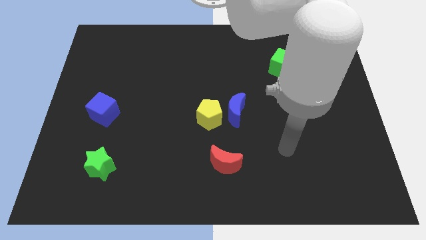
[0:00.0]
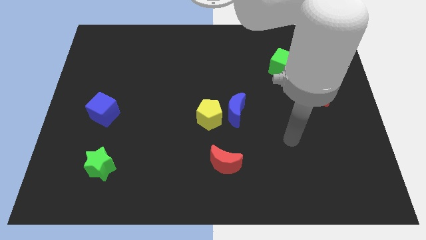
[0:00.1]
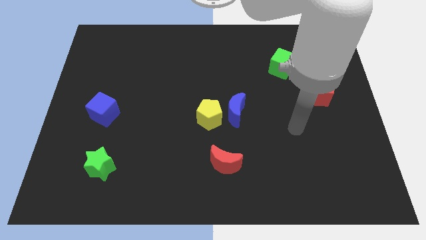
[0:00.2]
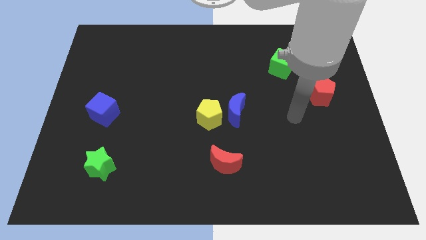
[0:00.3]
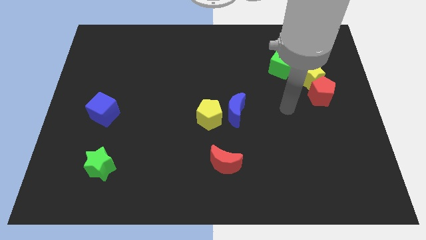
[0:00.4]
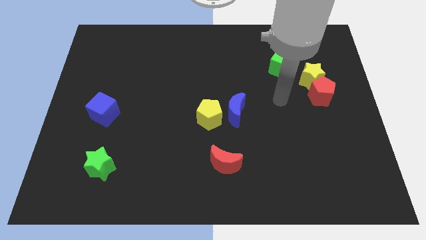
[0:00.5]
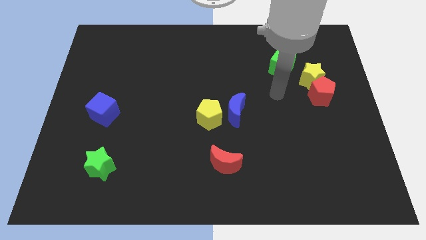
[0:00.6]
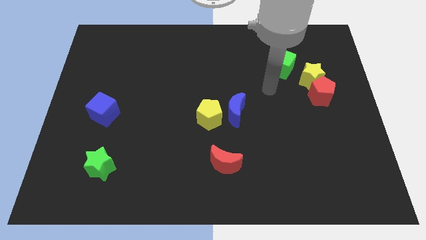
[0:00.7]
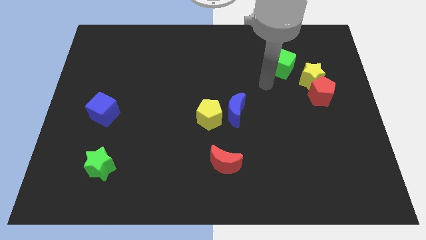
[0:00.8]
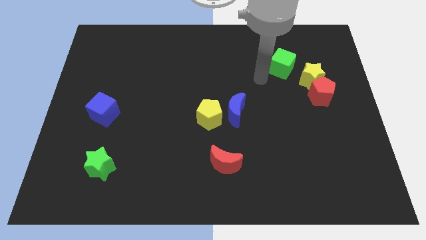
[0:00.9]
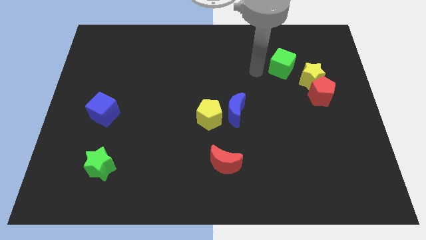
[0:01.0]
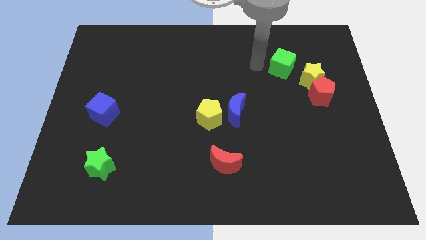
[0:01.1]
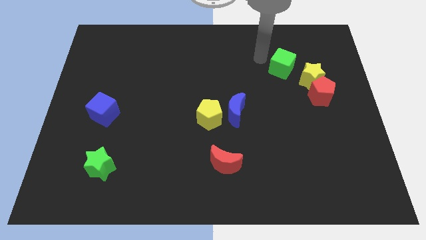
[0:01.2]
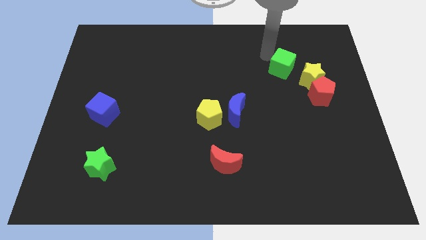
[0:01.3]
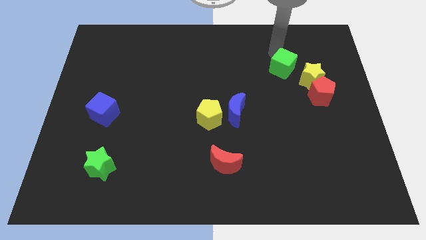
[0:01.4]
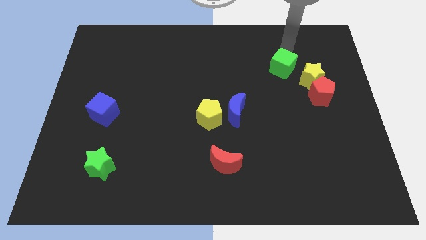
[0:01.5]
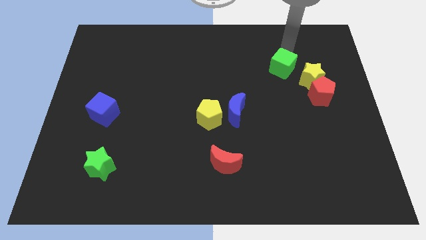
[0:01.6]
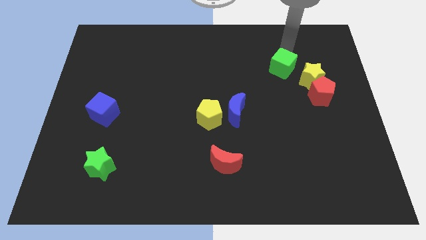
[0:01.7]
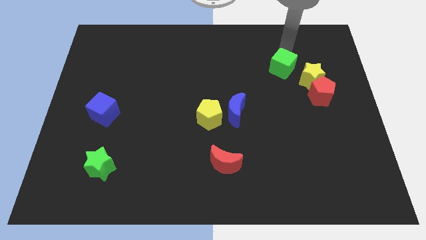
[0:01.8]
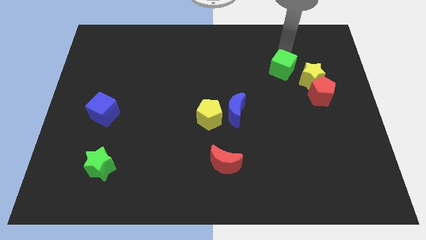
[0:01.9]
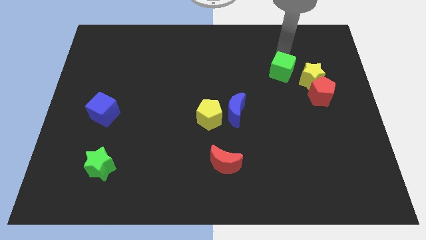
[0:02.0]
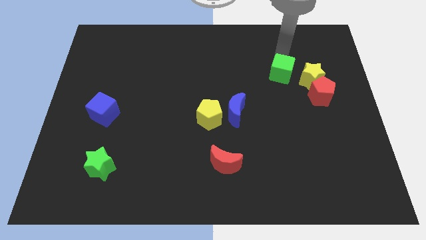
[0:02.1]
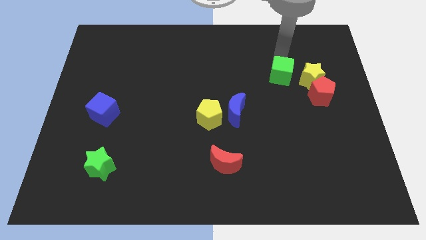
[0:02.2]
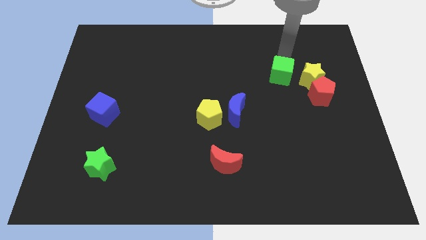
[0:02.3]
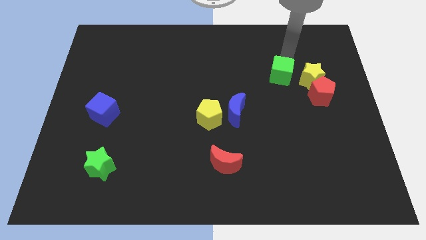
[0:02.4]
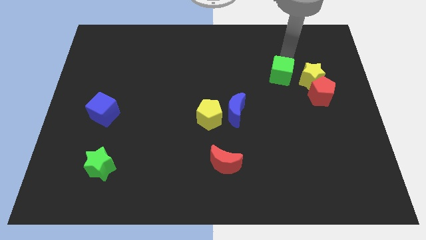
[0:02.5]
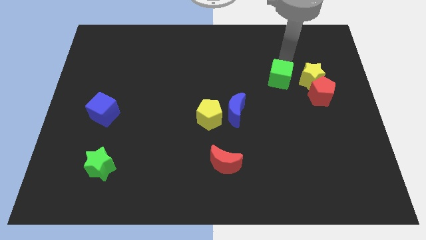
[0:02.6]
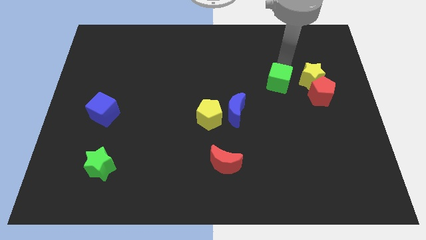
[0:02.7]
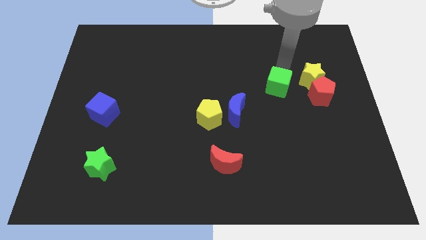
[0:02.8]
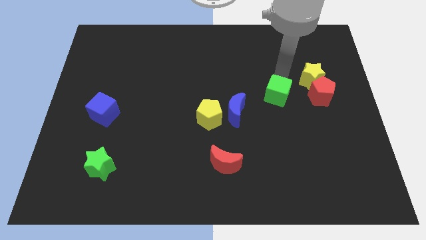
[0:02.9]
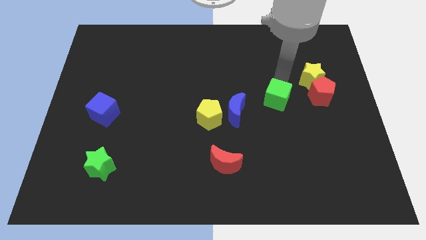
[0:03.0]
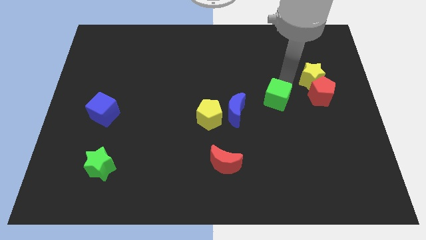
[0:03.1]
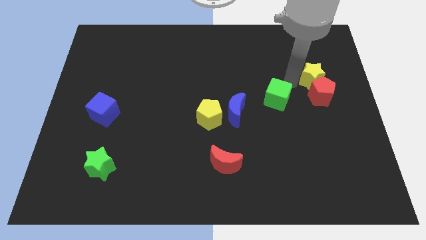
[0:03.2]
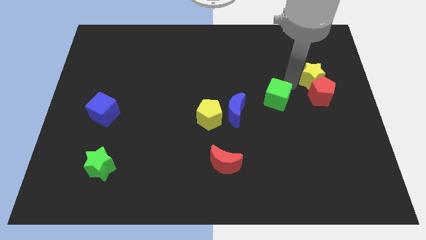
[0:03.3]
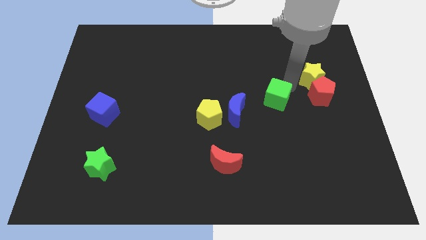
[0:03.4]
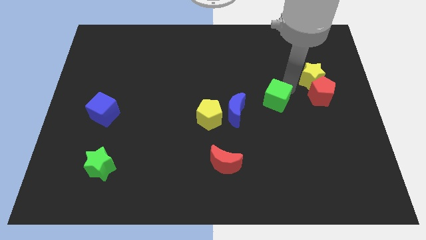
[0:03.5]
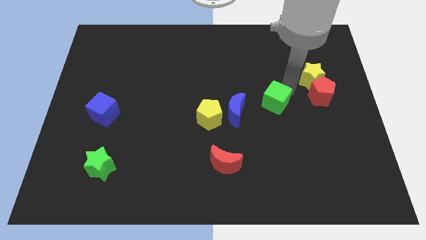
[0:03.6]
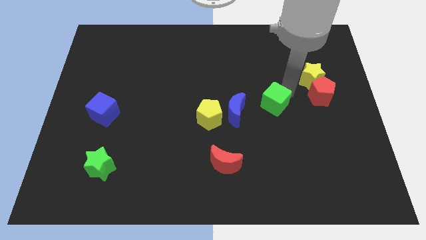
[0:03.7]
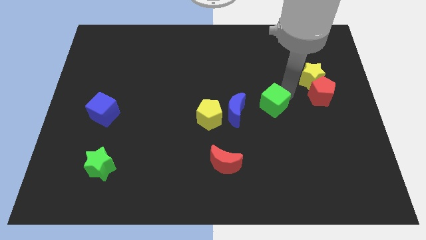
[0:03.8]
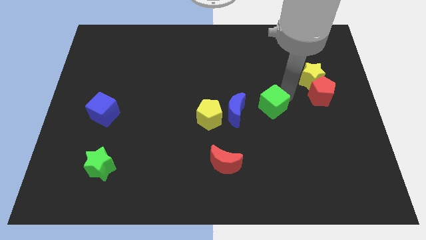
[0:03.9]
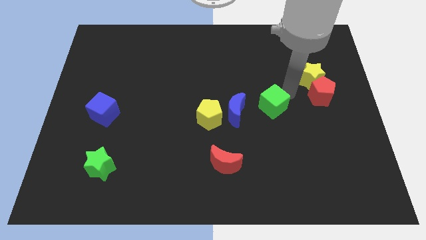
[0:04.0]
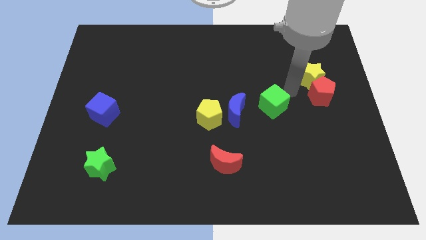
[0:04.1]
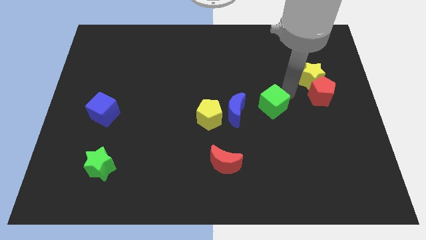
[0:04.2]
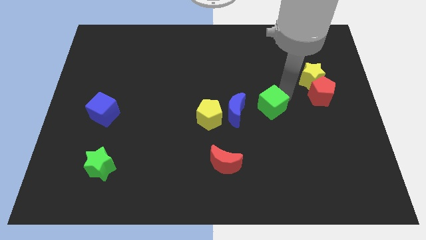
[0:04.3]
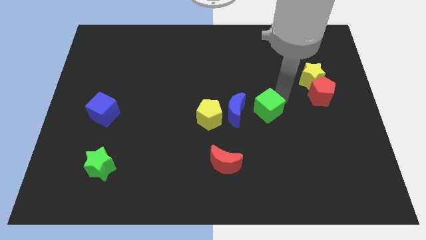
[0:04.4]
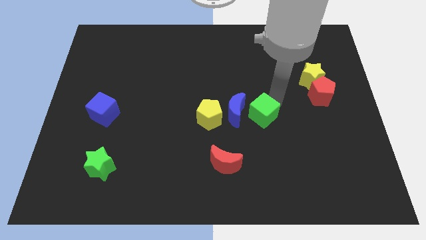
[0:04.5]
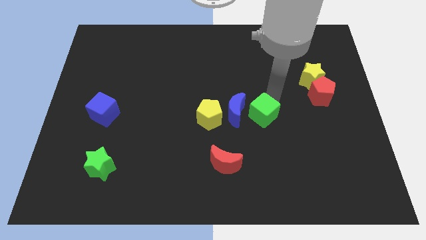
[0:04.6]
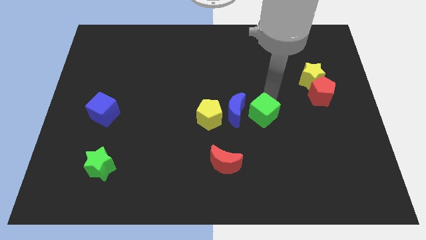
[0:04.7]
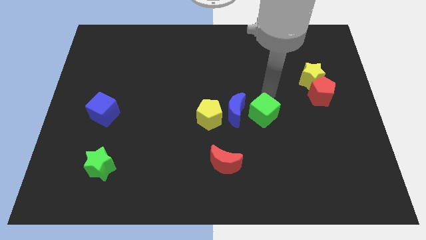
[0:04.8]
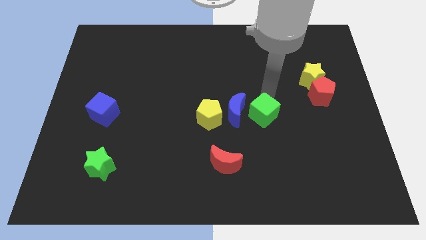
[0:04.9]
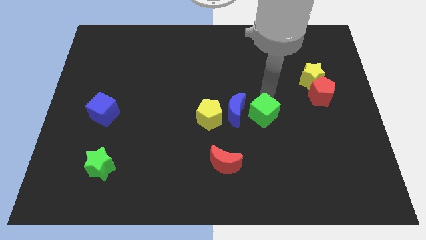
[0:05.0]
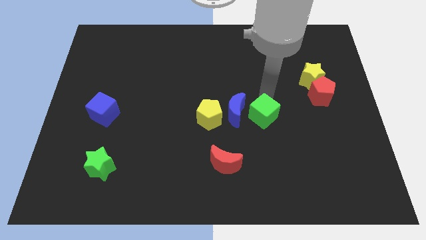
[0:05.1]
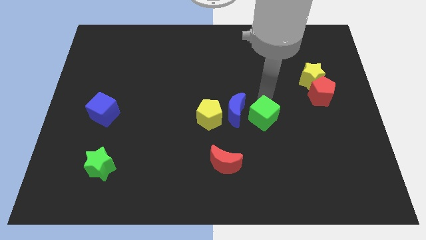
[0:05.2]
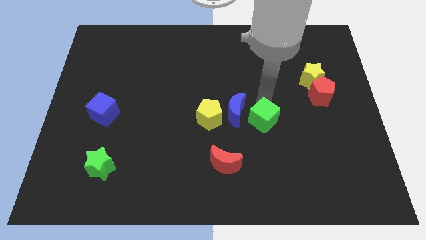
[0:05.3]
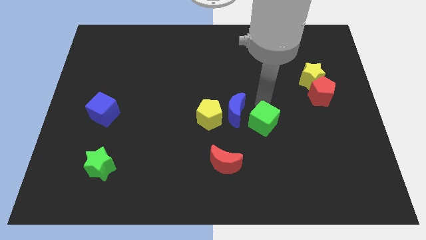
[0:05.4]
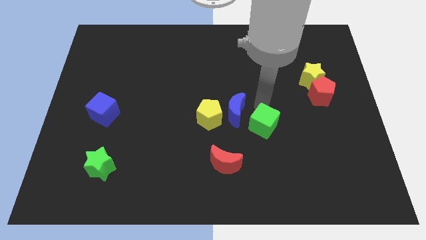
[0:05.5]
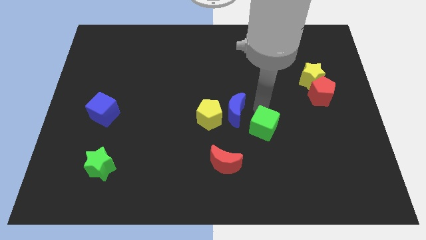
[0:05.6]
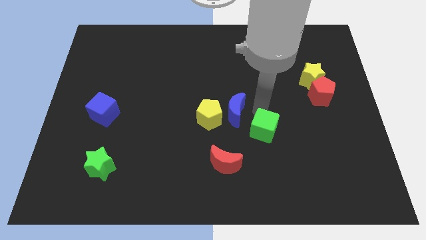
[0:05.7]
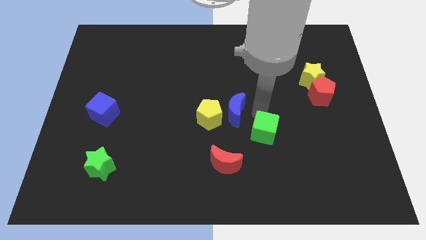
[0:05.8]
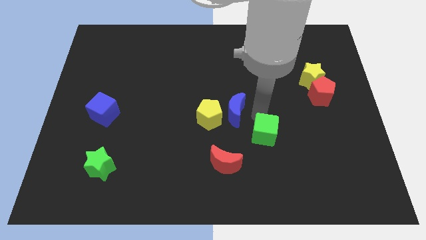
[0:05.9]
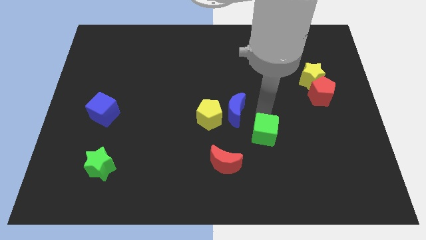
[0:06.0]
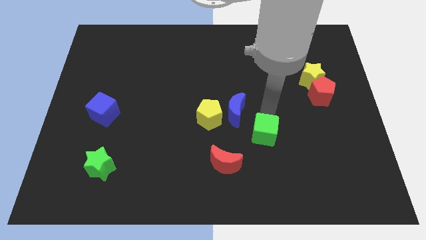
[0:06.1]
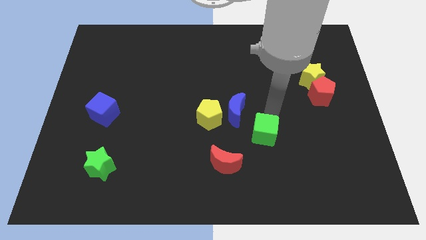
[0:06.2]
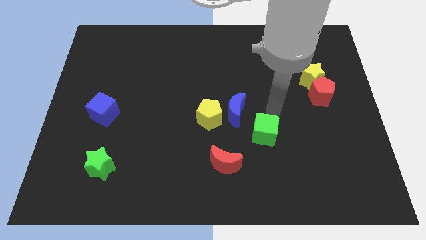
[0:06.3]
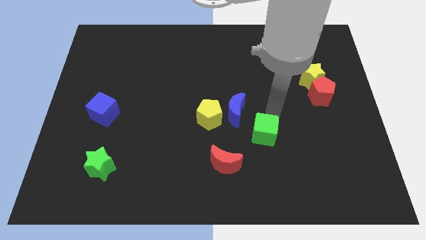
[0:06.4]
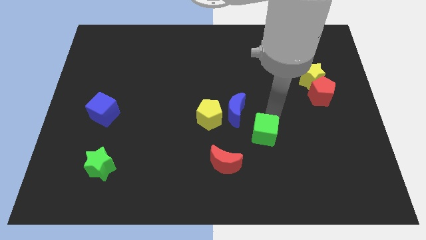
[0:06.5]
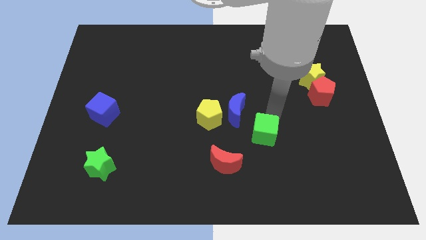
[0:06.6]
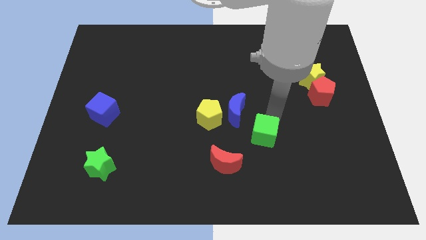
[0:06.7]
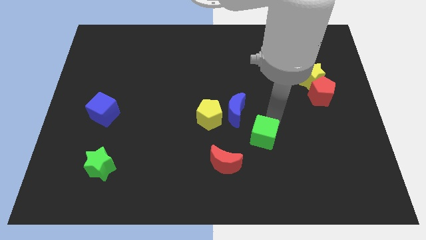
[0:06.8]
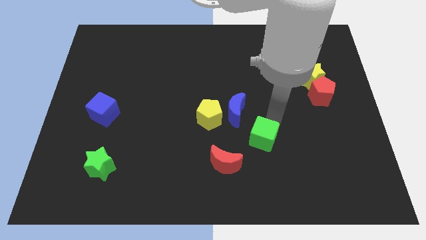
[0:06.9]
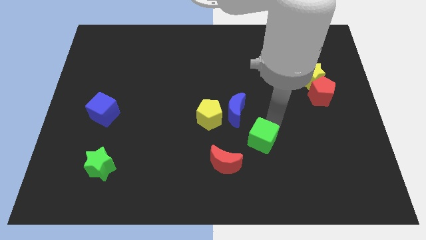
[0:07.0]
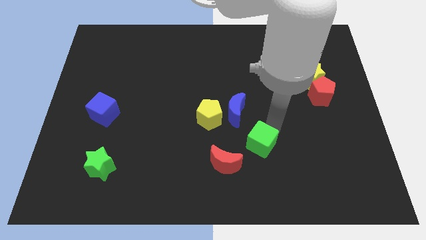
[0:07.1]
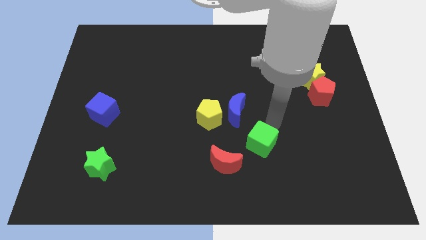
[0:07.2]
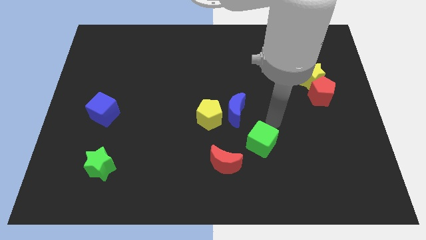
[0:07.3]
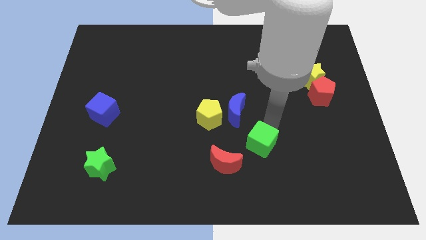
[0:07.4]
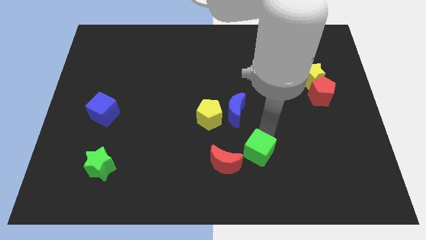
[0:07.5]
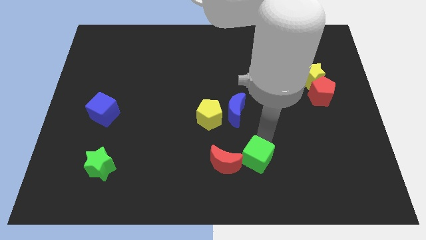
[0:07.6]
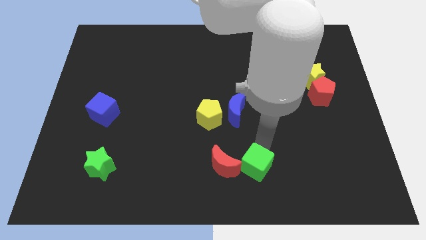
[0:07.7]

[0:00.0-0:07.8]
move the green cube to the bottom side
